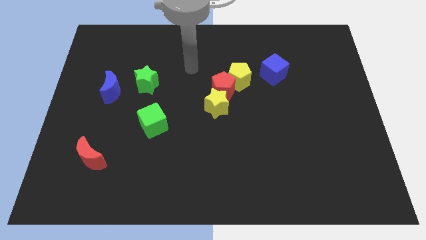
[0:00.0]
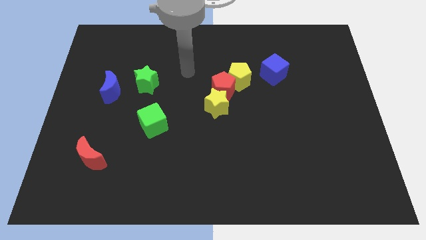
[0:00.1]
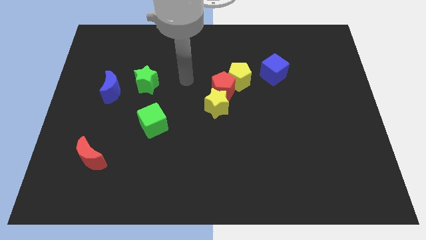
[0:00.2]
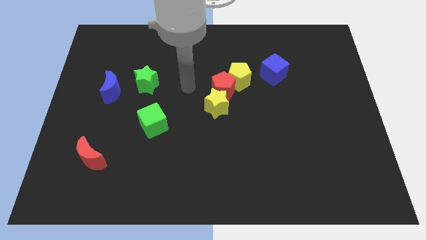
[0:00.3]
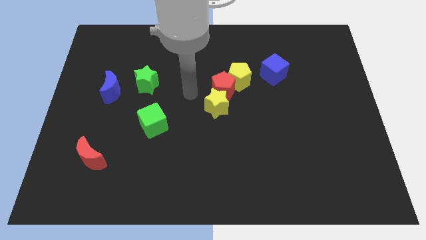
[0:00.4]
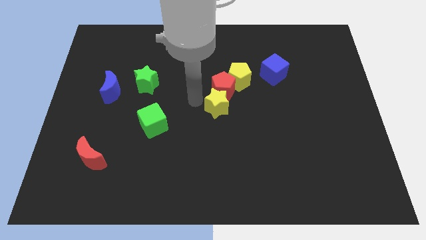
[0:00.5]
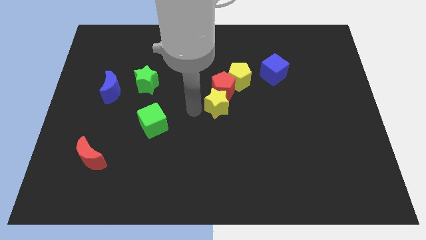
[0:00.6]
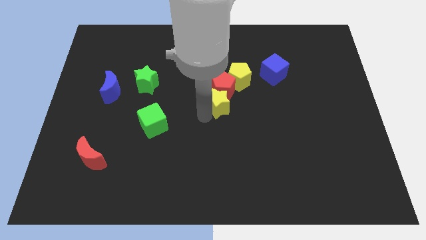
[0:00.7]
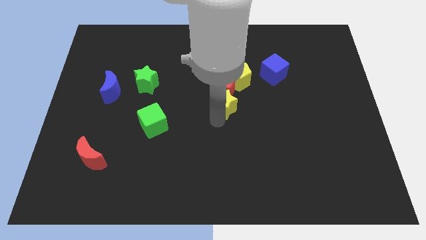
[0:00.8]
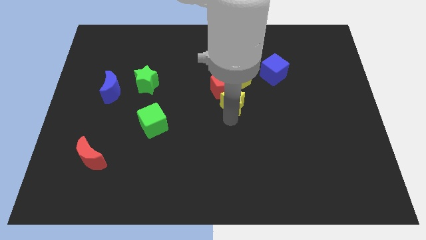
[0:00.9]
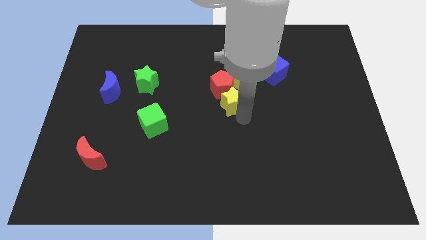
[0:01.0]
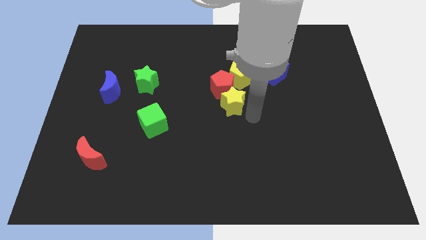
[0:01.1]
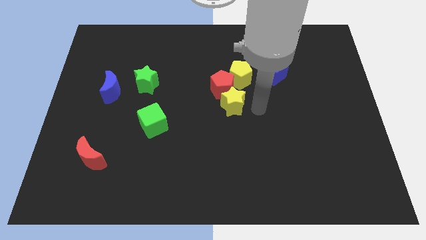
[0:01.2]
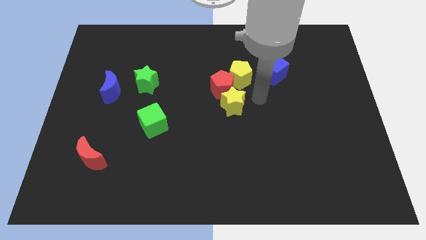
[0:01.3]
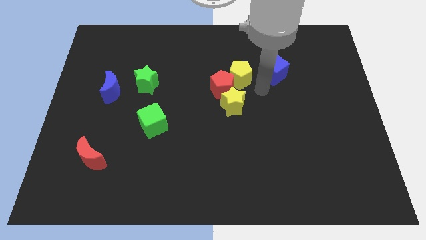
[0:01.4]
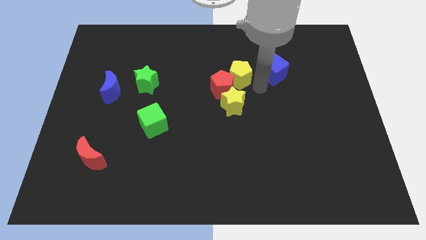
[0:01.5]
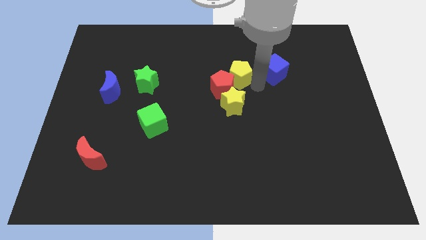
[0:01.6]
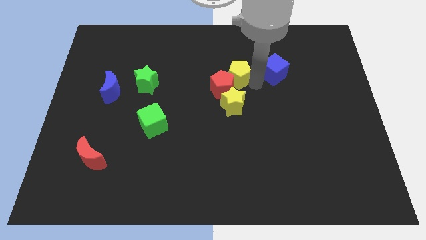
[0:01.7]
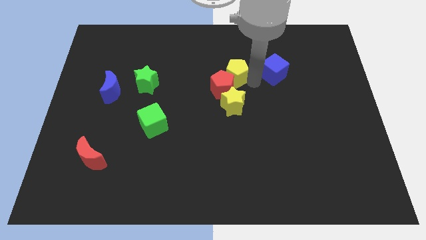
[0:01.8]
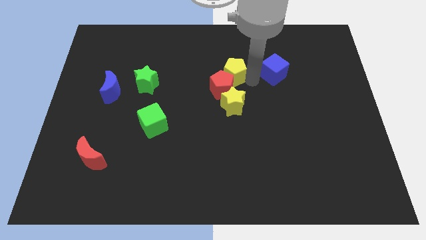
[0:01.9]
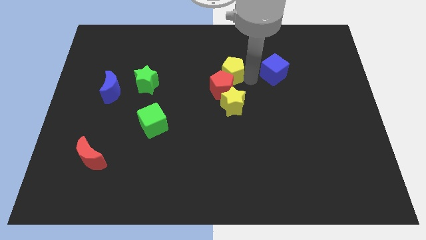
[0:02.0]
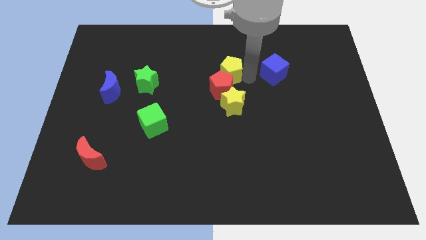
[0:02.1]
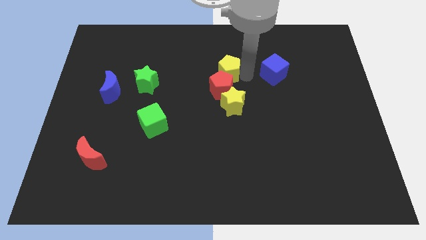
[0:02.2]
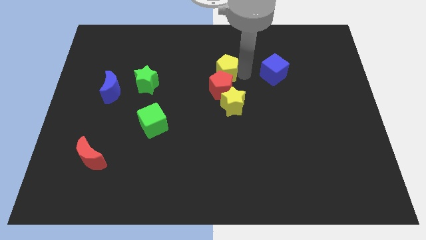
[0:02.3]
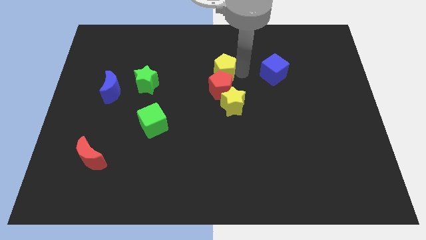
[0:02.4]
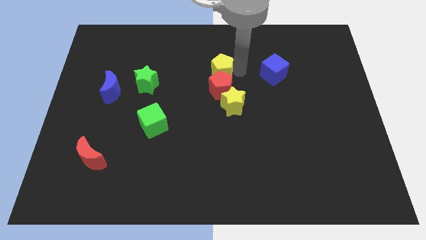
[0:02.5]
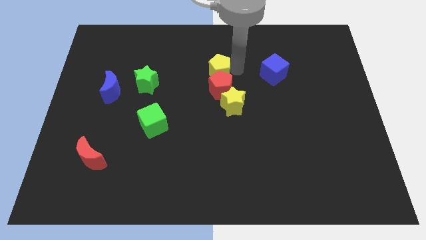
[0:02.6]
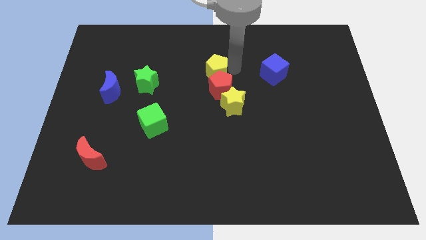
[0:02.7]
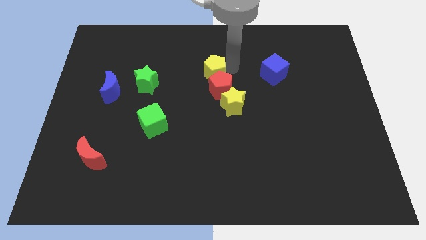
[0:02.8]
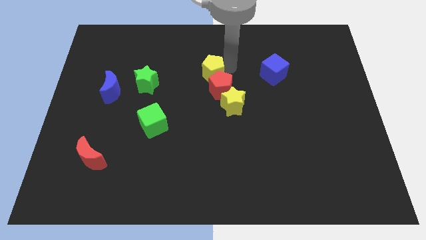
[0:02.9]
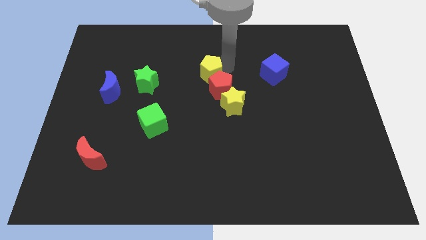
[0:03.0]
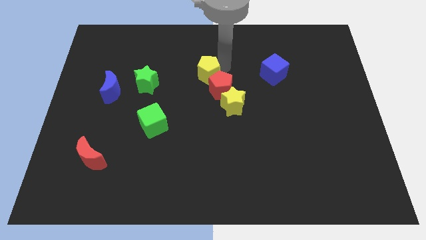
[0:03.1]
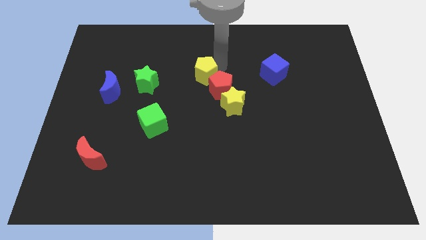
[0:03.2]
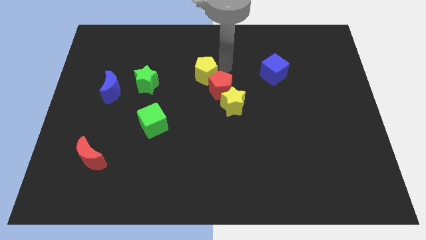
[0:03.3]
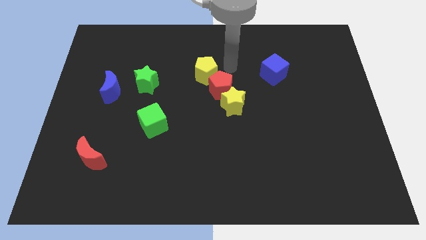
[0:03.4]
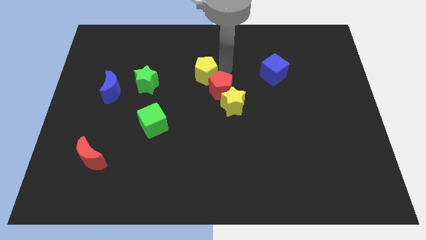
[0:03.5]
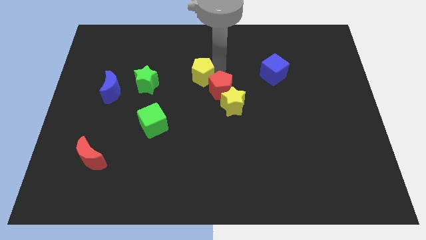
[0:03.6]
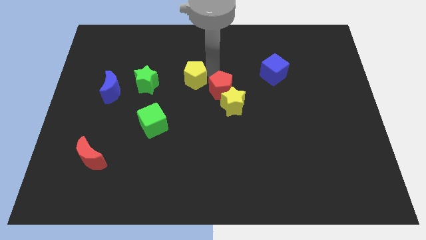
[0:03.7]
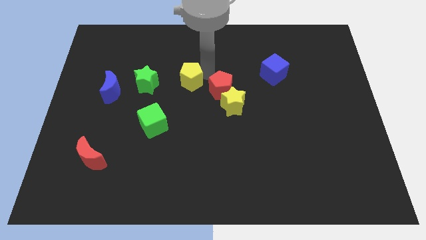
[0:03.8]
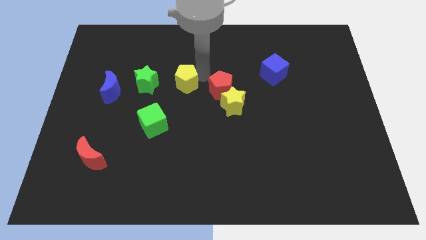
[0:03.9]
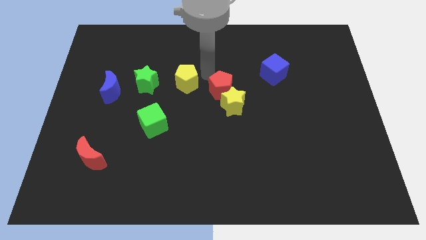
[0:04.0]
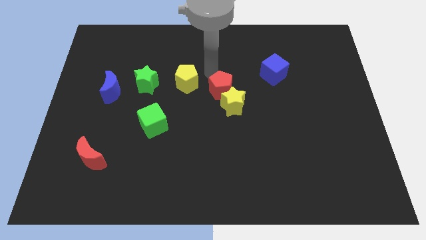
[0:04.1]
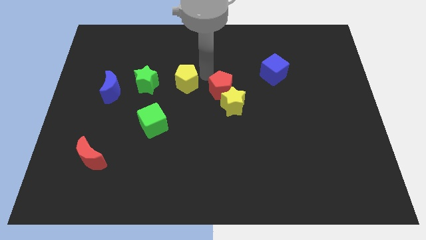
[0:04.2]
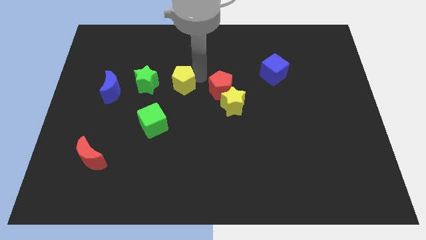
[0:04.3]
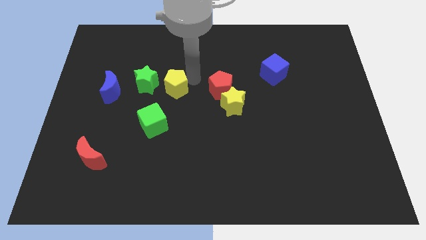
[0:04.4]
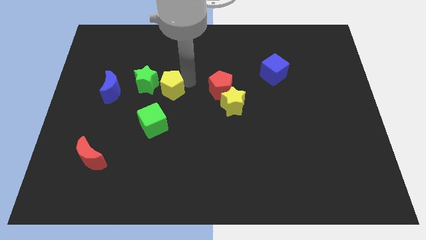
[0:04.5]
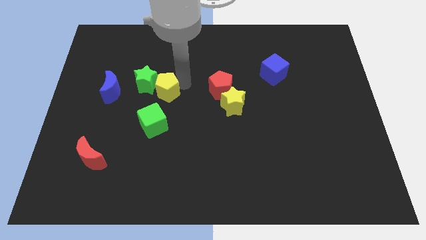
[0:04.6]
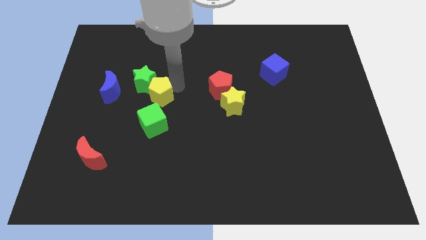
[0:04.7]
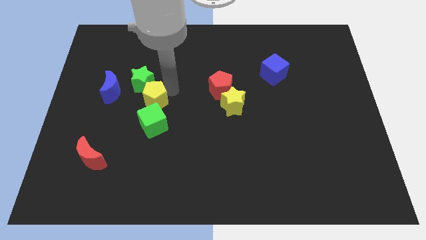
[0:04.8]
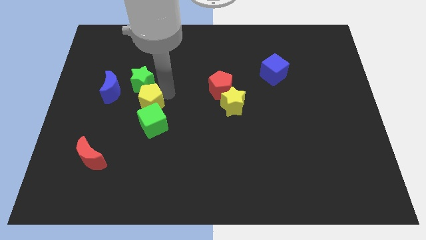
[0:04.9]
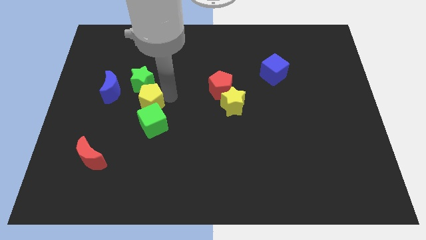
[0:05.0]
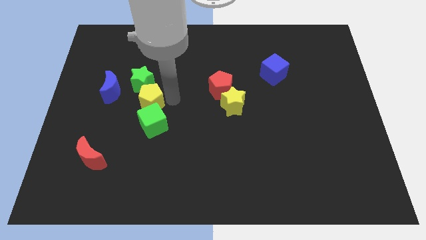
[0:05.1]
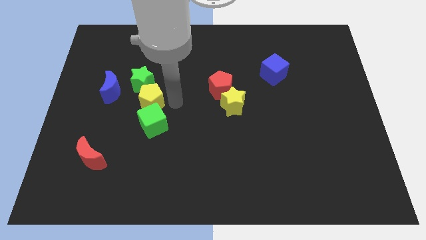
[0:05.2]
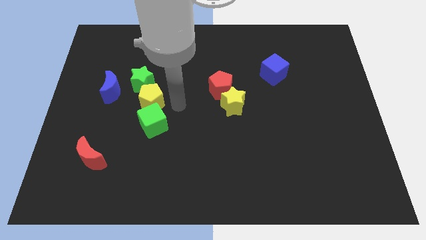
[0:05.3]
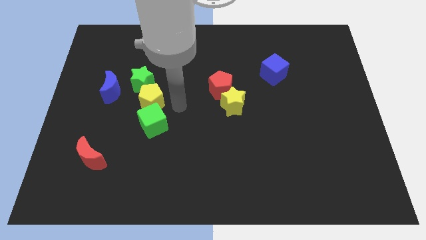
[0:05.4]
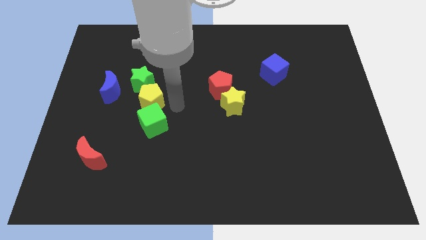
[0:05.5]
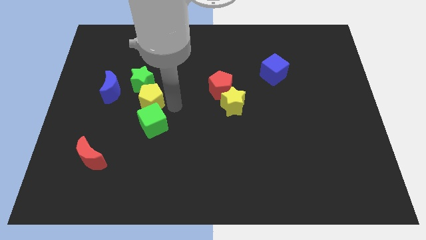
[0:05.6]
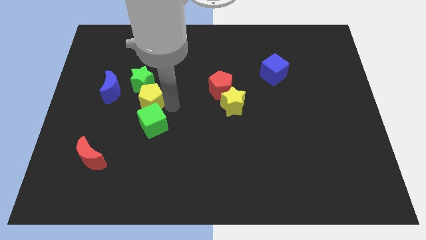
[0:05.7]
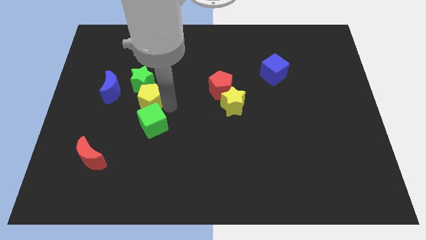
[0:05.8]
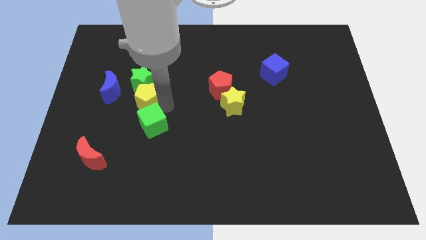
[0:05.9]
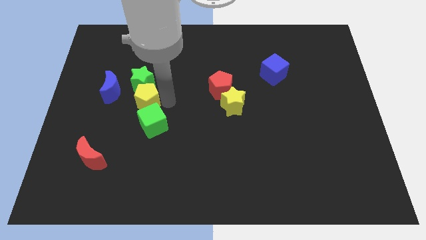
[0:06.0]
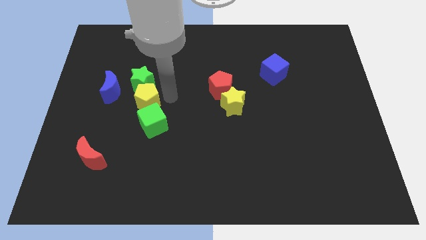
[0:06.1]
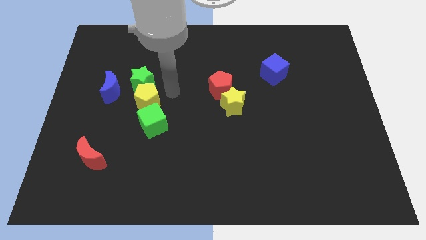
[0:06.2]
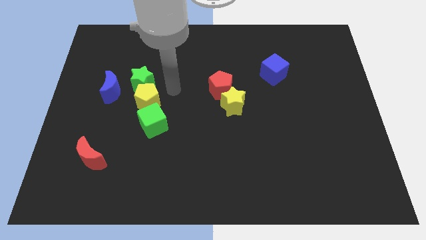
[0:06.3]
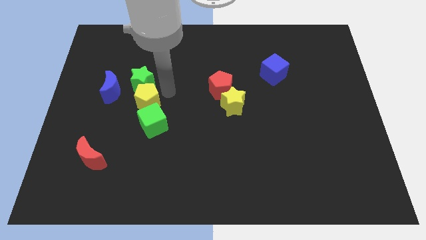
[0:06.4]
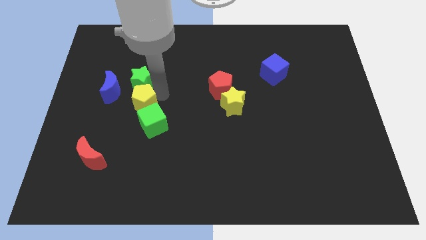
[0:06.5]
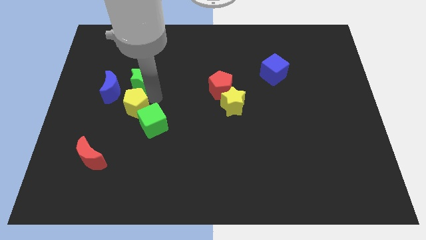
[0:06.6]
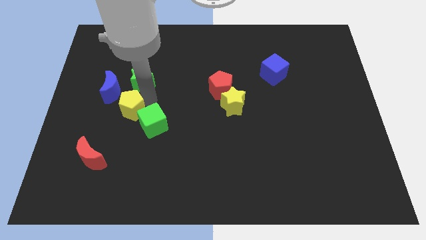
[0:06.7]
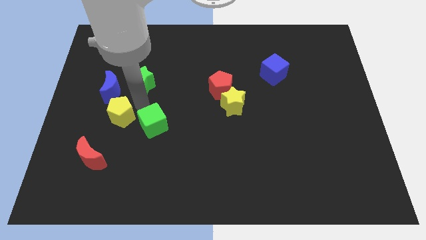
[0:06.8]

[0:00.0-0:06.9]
put the yellow pentagon to the top of the red moon

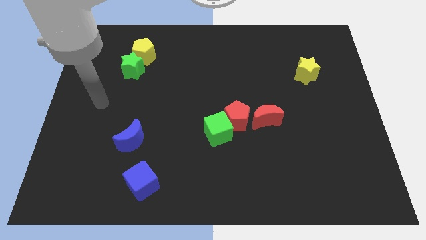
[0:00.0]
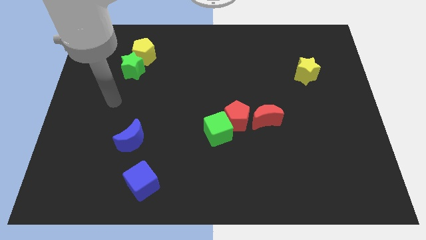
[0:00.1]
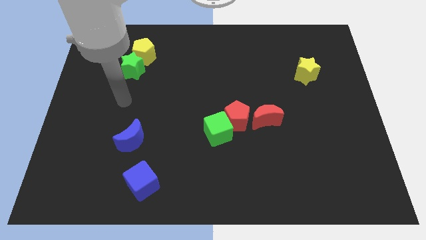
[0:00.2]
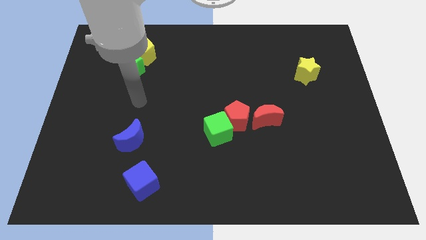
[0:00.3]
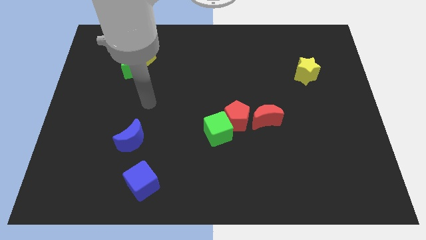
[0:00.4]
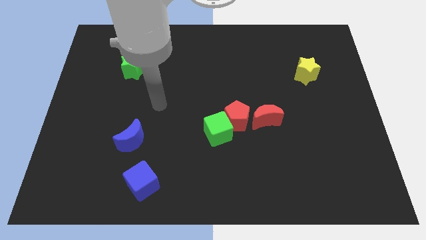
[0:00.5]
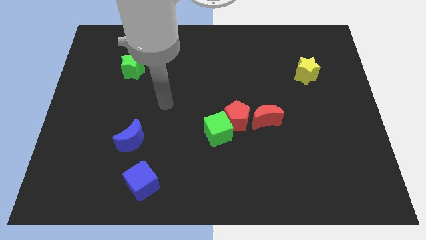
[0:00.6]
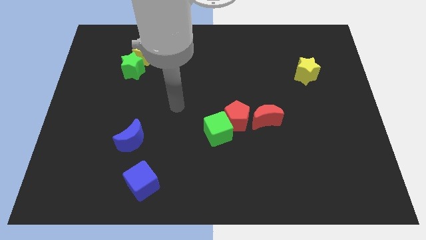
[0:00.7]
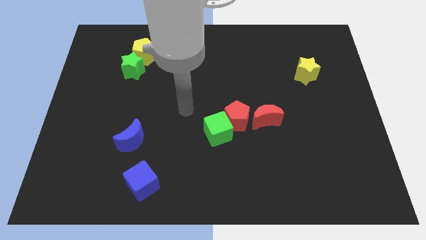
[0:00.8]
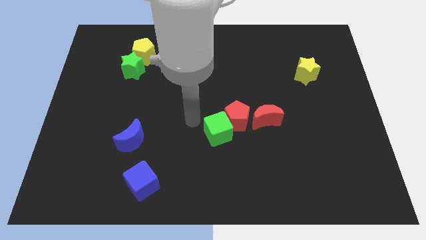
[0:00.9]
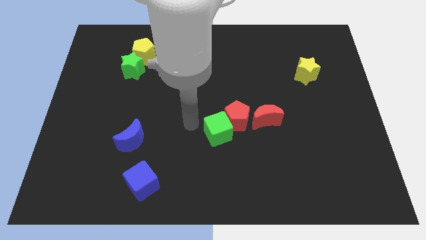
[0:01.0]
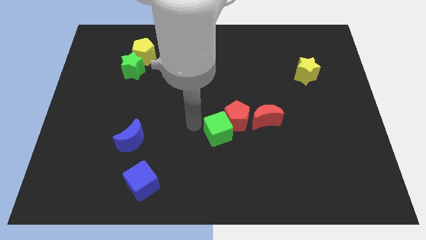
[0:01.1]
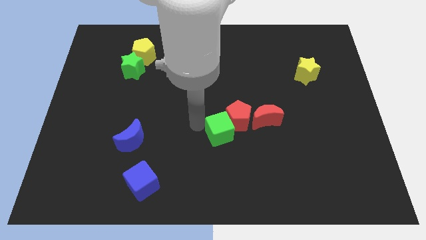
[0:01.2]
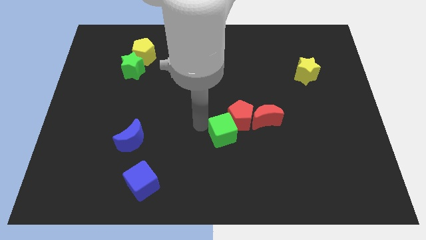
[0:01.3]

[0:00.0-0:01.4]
push the green cube to the bottom left of the red moon
